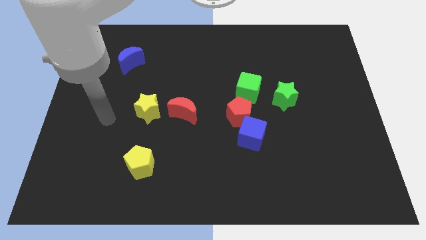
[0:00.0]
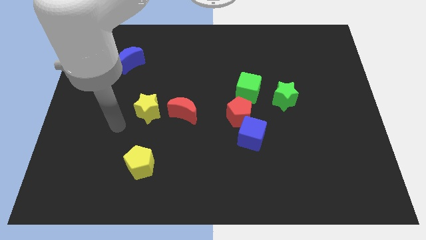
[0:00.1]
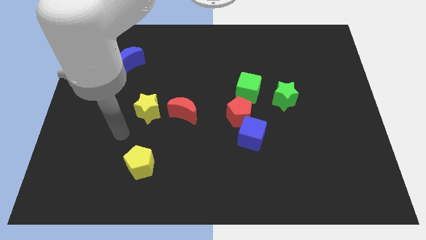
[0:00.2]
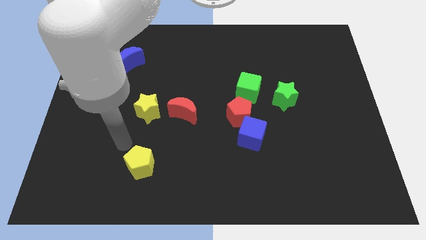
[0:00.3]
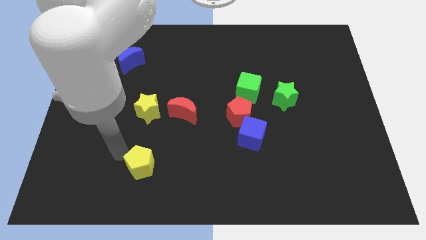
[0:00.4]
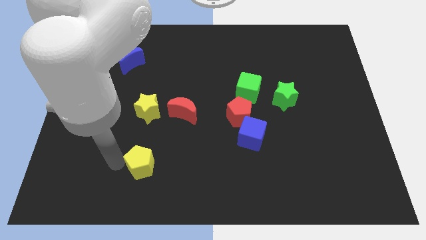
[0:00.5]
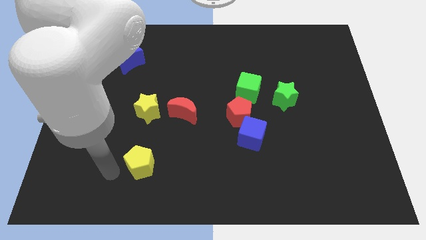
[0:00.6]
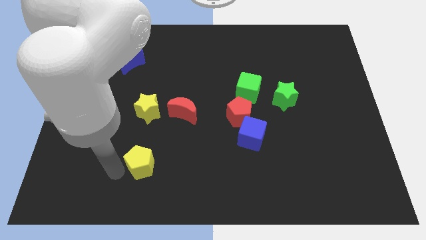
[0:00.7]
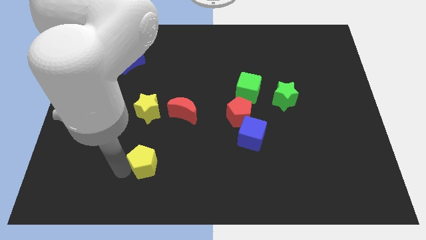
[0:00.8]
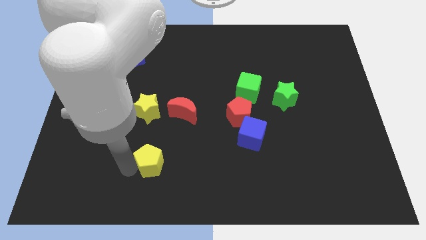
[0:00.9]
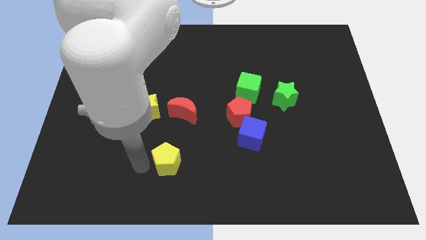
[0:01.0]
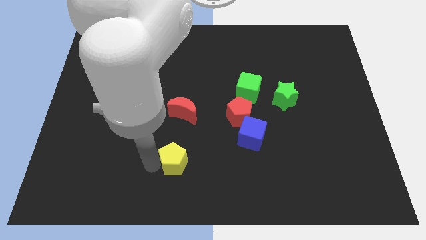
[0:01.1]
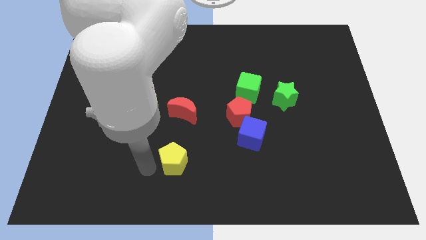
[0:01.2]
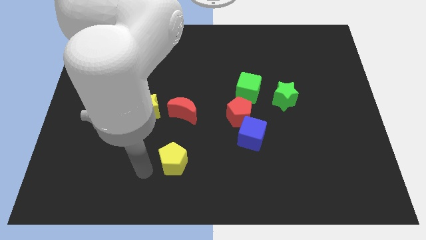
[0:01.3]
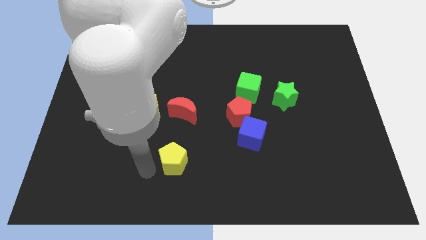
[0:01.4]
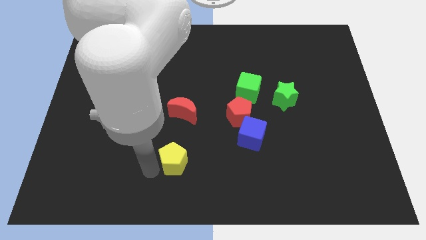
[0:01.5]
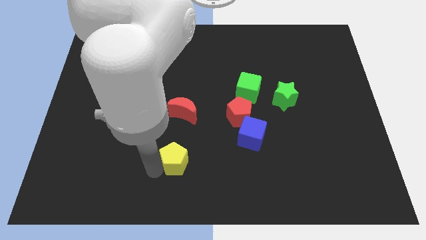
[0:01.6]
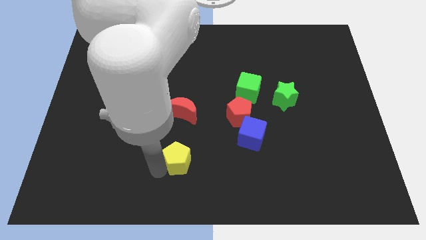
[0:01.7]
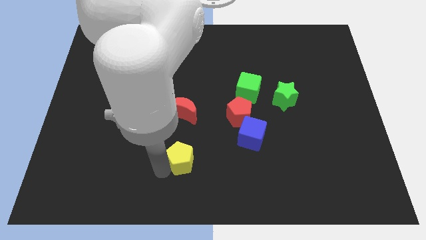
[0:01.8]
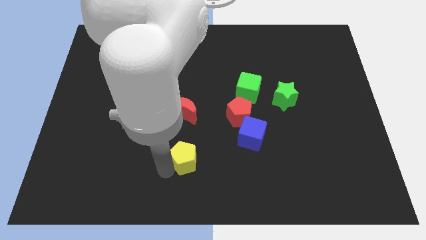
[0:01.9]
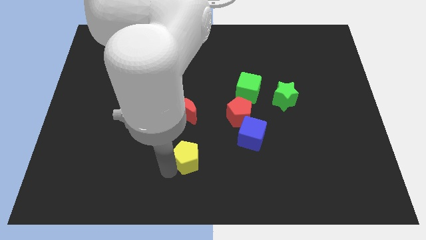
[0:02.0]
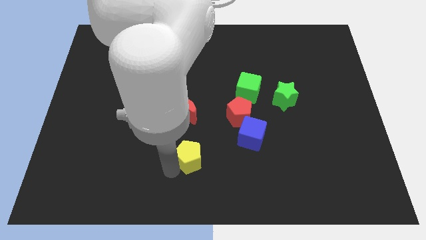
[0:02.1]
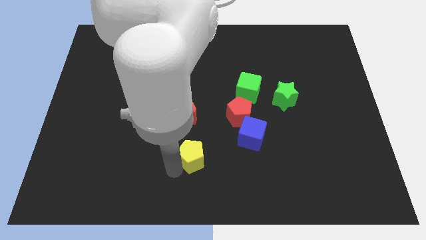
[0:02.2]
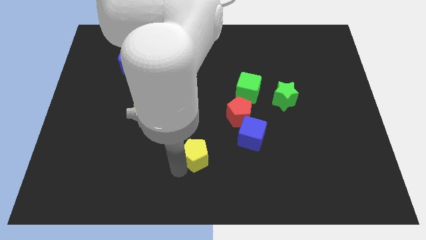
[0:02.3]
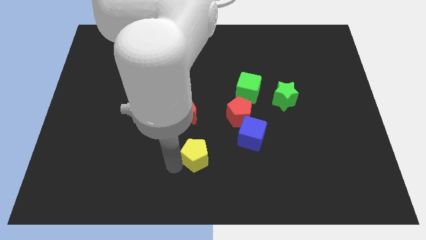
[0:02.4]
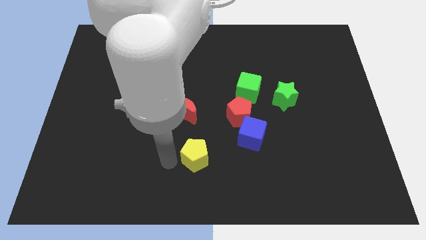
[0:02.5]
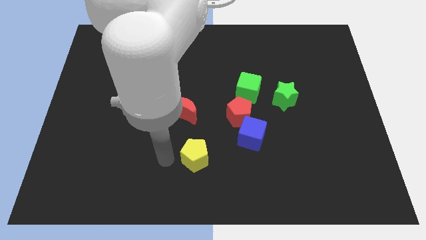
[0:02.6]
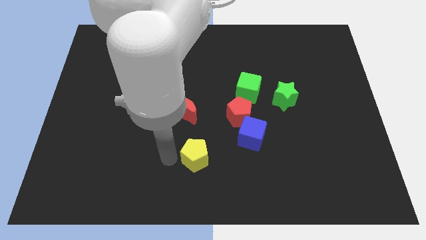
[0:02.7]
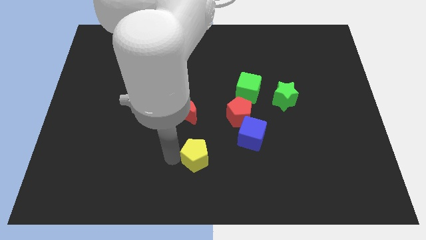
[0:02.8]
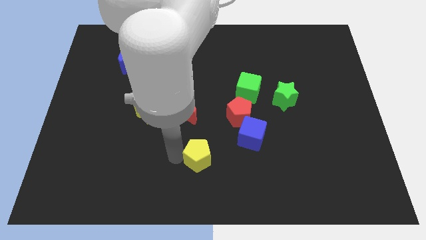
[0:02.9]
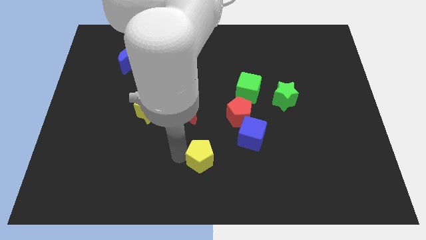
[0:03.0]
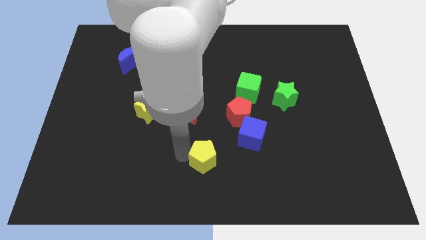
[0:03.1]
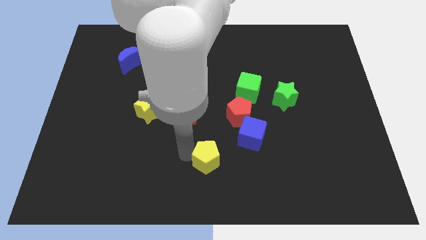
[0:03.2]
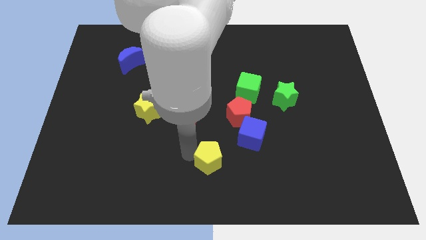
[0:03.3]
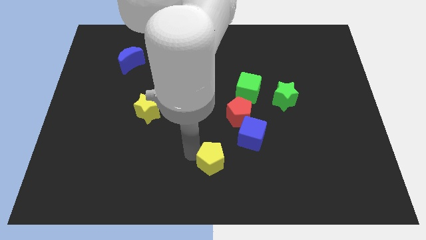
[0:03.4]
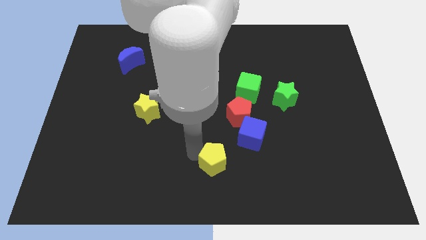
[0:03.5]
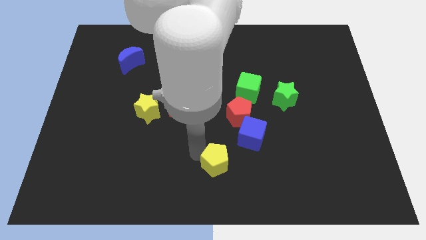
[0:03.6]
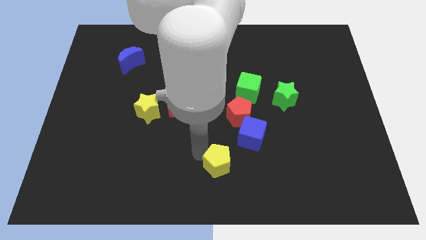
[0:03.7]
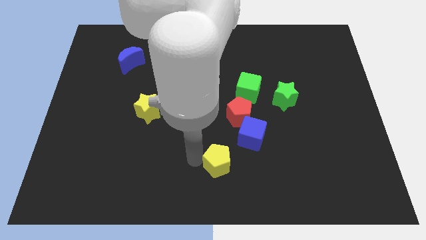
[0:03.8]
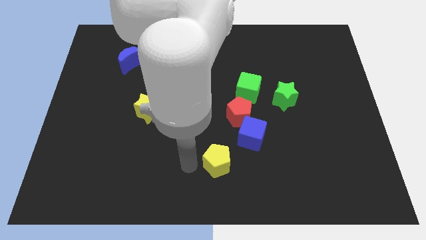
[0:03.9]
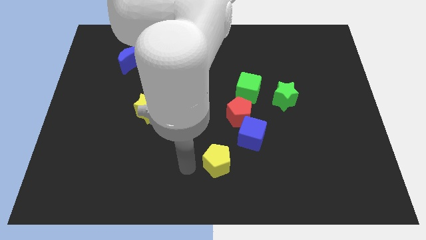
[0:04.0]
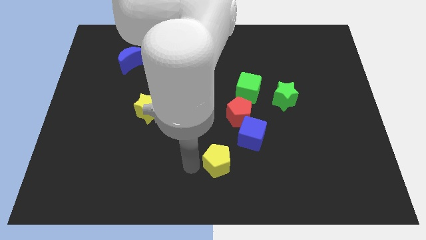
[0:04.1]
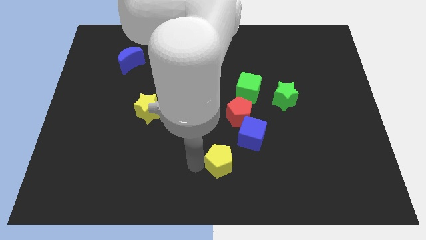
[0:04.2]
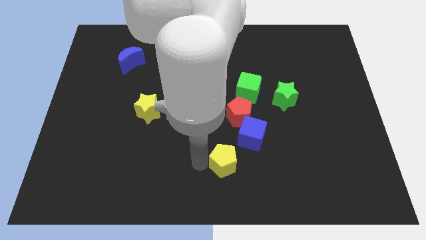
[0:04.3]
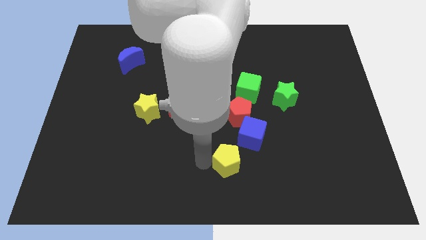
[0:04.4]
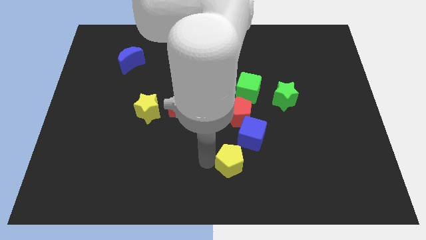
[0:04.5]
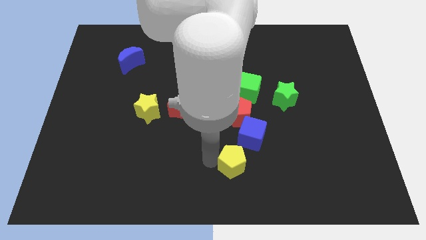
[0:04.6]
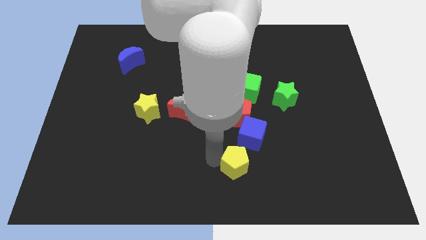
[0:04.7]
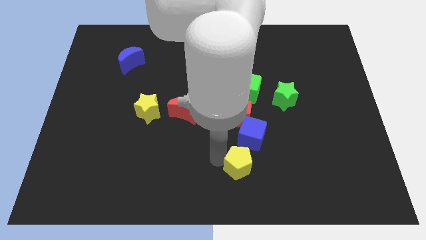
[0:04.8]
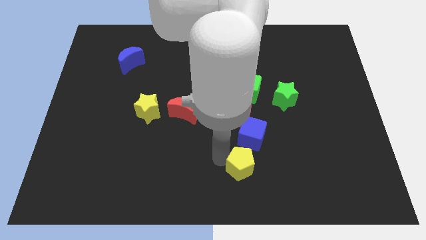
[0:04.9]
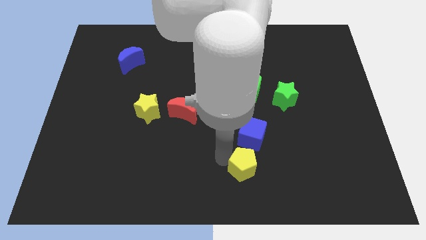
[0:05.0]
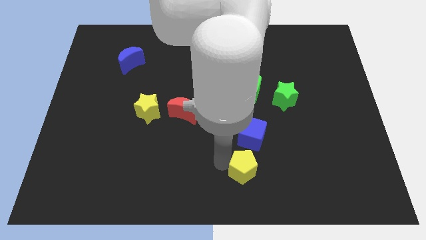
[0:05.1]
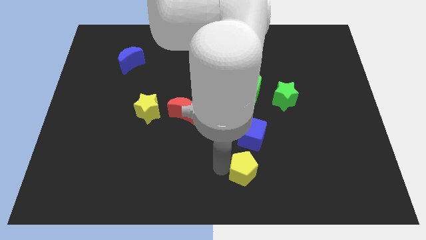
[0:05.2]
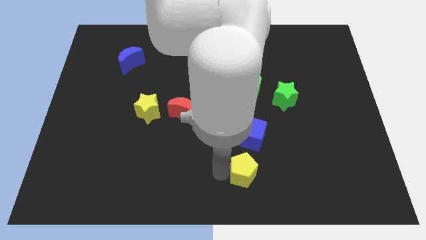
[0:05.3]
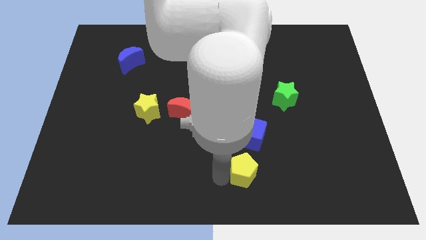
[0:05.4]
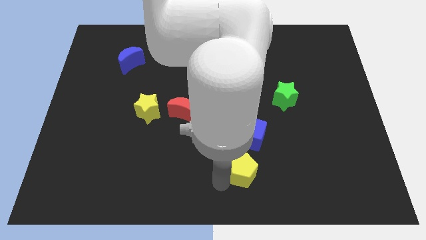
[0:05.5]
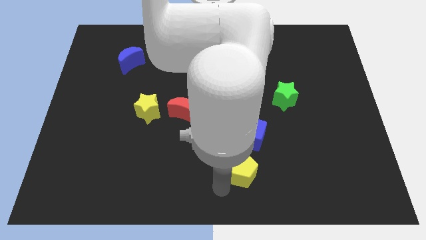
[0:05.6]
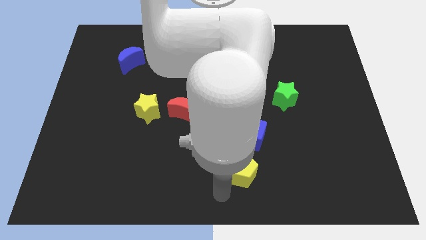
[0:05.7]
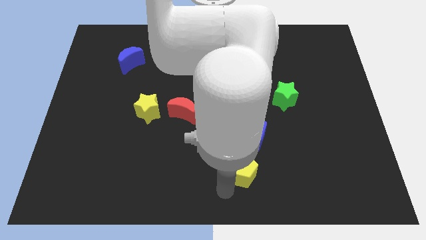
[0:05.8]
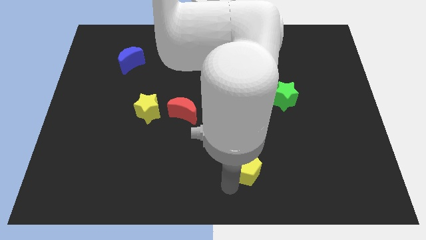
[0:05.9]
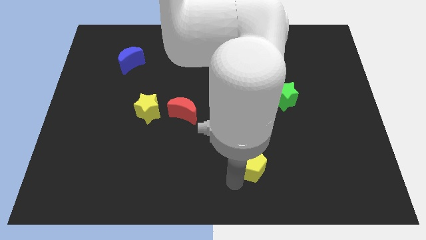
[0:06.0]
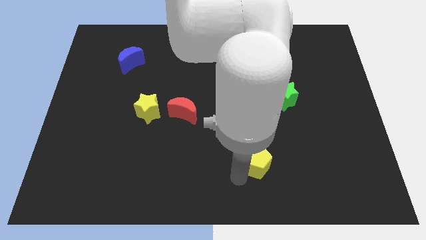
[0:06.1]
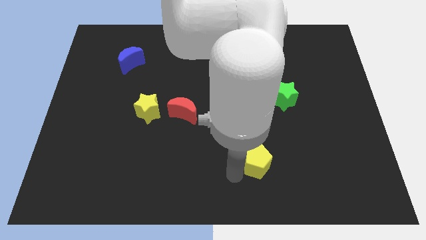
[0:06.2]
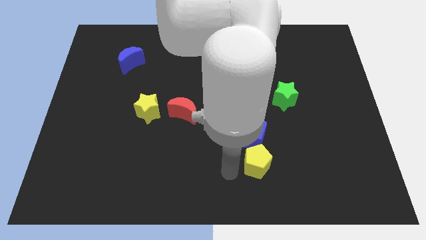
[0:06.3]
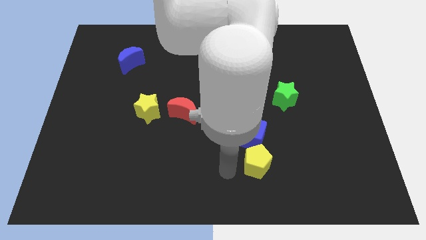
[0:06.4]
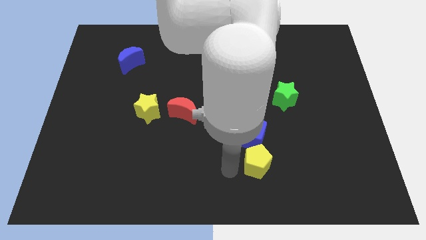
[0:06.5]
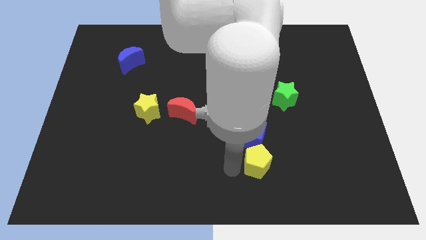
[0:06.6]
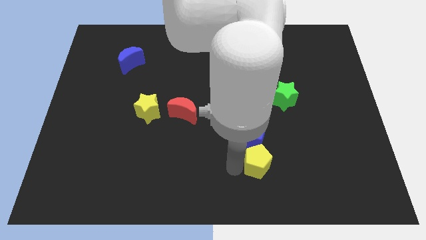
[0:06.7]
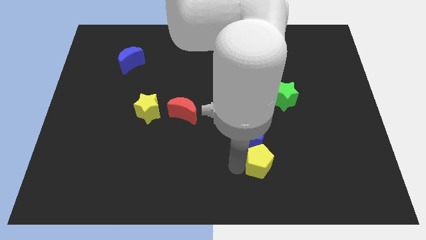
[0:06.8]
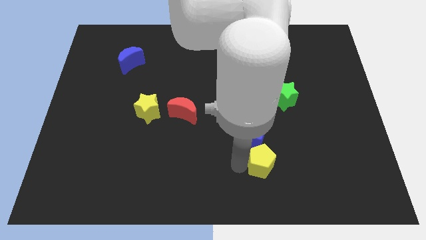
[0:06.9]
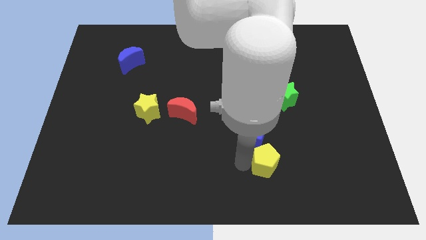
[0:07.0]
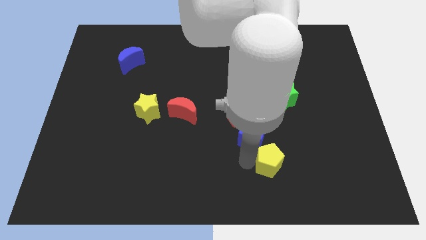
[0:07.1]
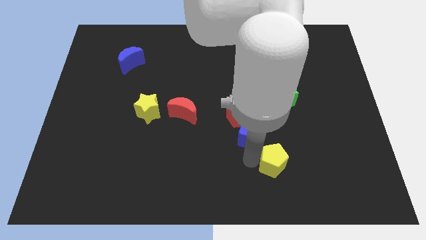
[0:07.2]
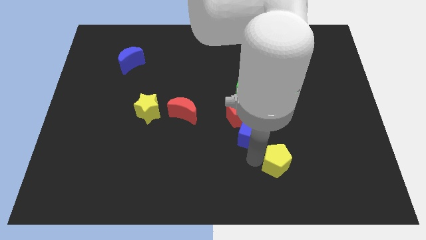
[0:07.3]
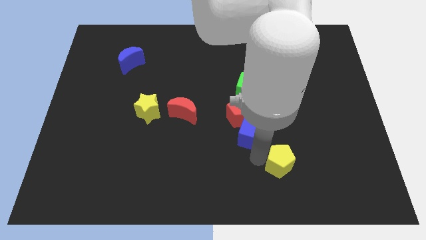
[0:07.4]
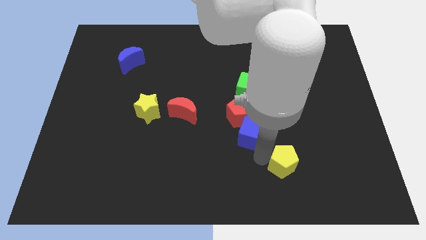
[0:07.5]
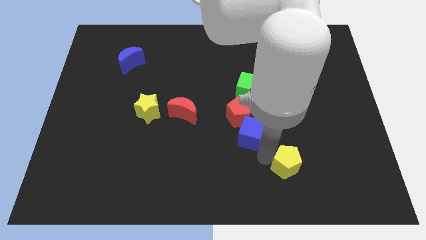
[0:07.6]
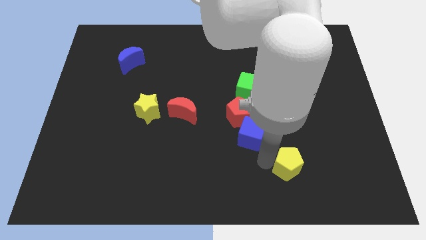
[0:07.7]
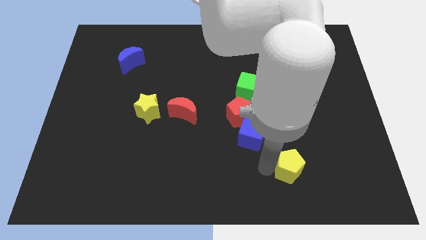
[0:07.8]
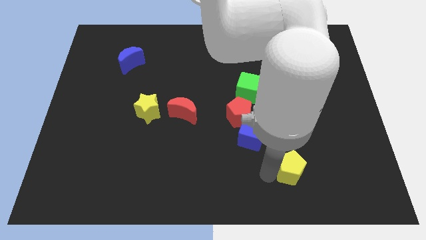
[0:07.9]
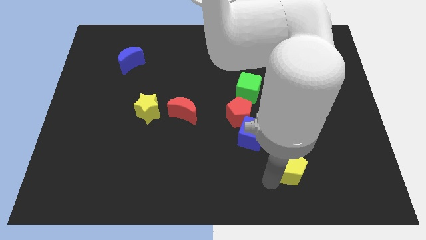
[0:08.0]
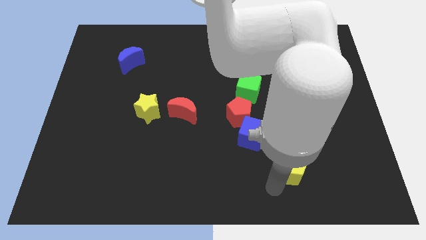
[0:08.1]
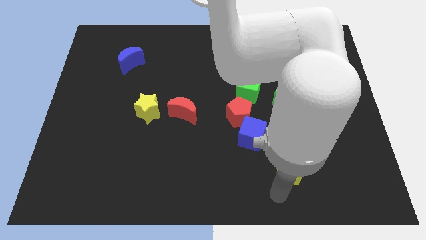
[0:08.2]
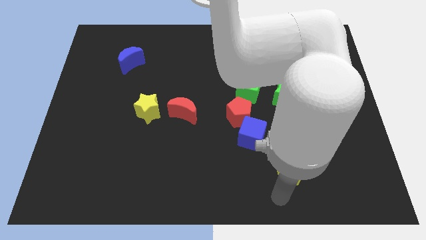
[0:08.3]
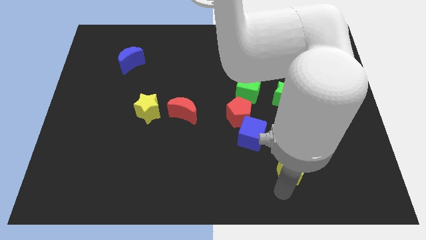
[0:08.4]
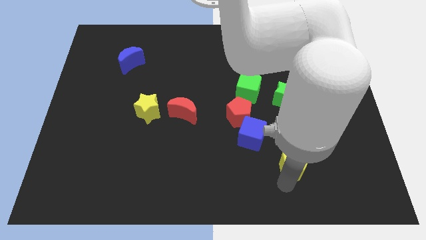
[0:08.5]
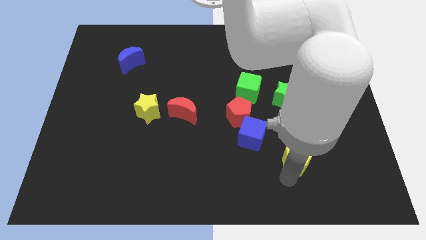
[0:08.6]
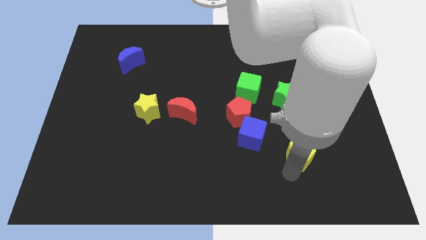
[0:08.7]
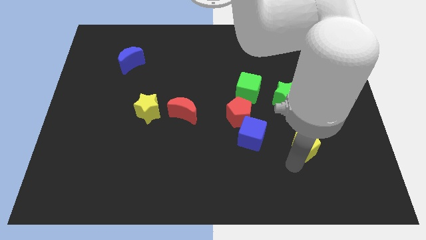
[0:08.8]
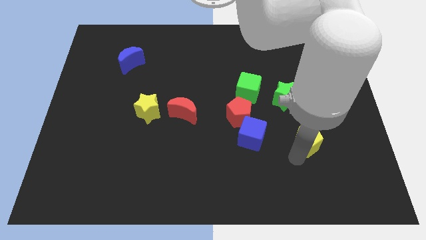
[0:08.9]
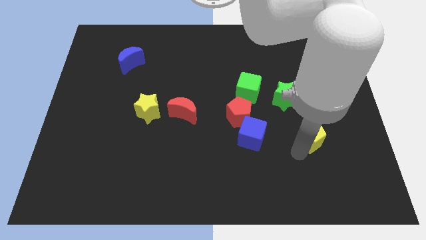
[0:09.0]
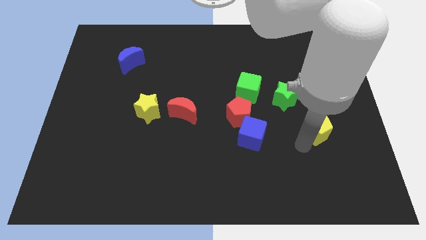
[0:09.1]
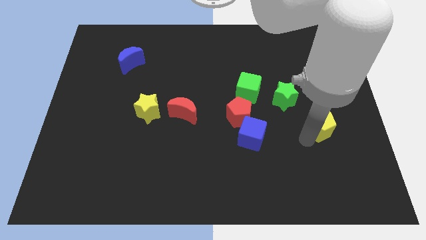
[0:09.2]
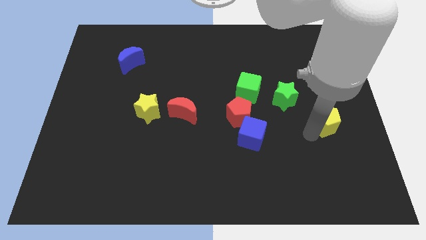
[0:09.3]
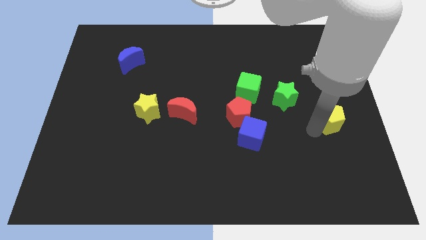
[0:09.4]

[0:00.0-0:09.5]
move the yellow pentagon to the center right
